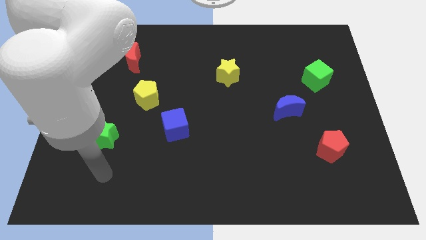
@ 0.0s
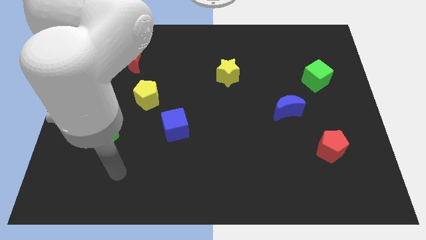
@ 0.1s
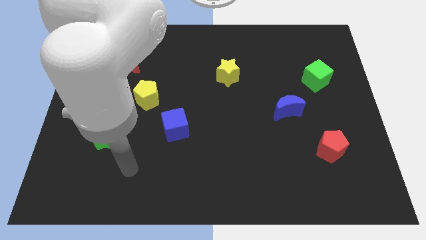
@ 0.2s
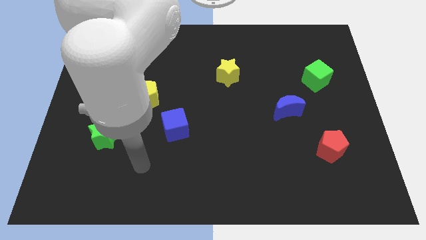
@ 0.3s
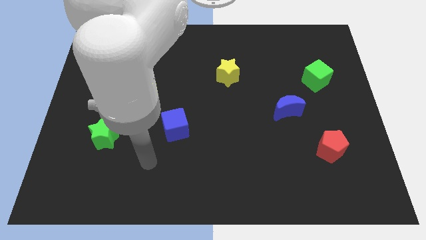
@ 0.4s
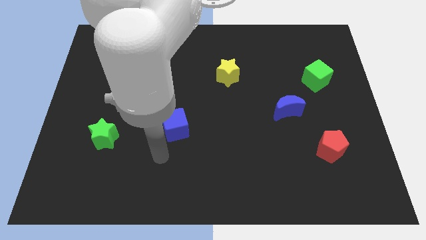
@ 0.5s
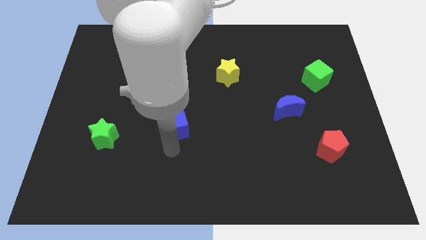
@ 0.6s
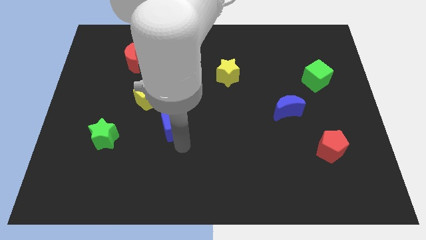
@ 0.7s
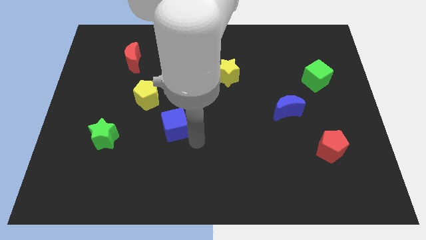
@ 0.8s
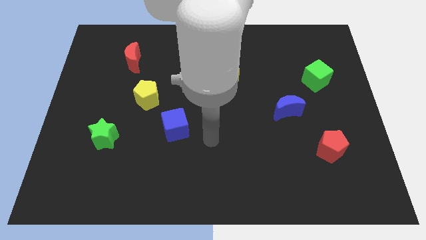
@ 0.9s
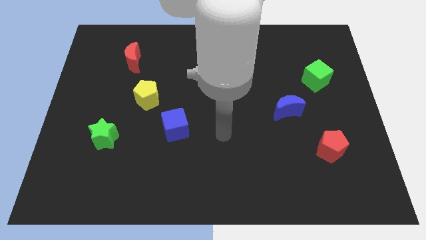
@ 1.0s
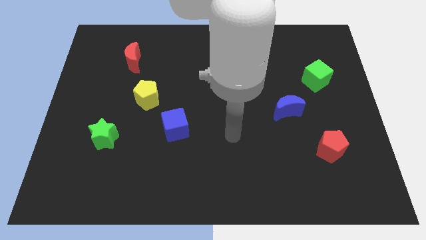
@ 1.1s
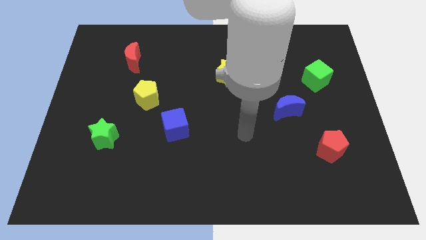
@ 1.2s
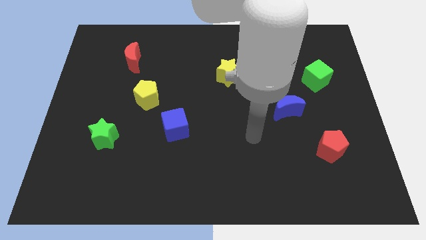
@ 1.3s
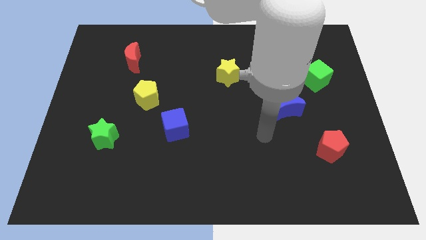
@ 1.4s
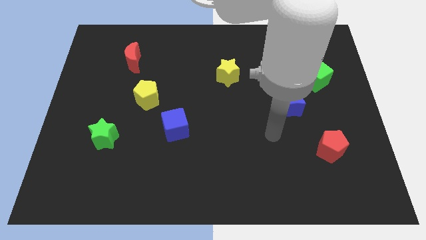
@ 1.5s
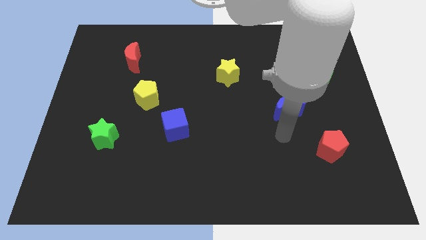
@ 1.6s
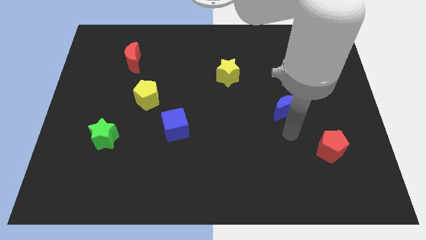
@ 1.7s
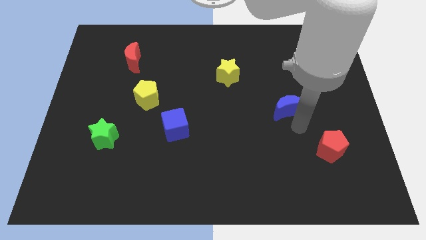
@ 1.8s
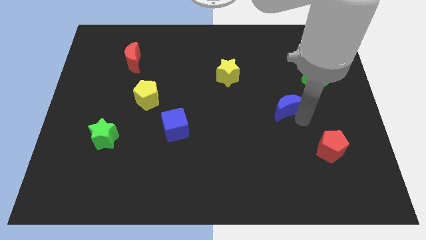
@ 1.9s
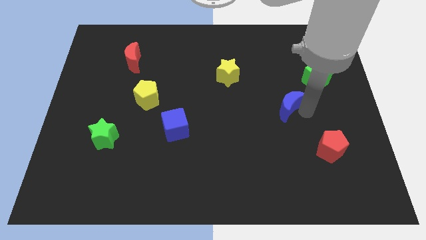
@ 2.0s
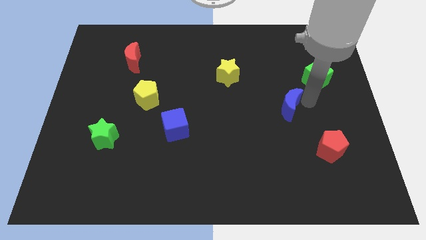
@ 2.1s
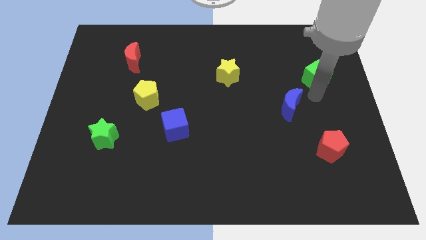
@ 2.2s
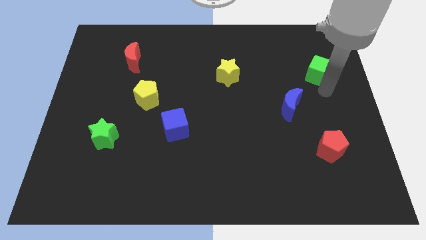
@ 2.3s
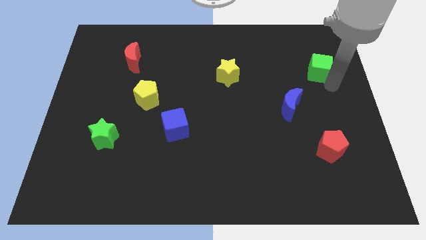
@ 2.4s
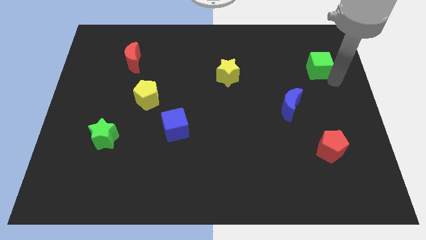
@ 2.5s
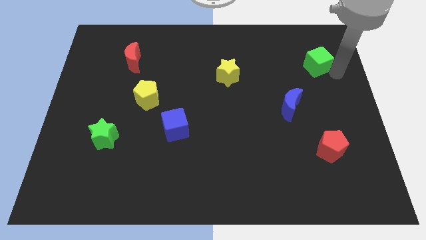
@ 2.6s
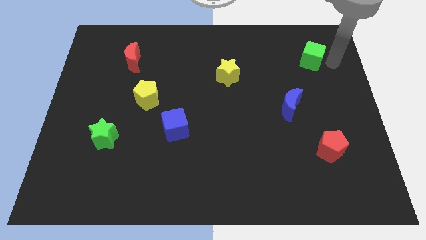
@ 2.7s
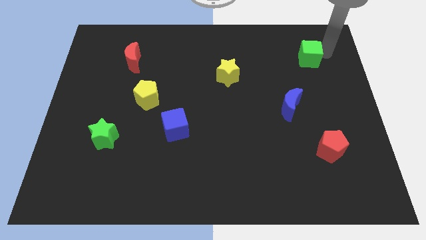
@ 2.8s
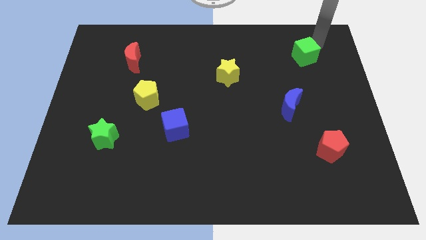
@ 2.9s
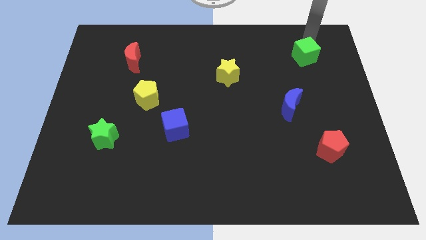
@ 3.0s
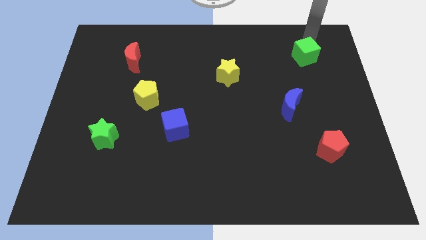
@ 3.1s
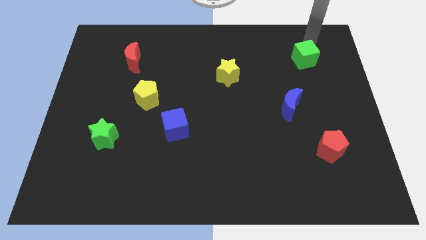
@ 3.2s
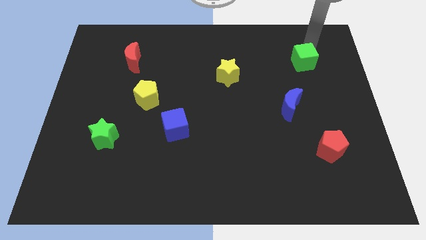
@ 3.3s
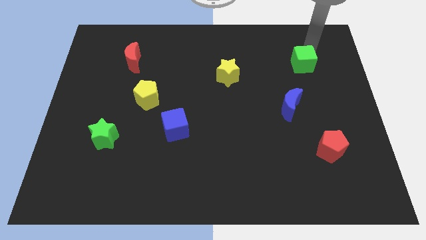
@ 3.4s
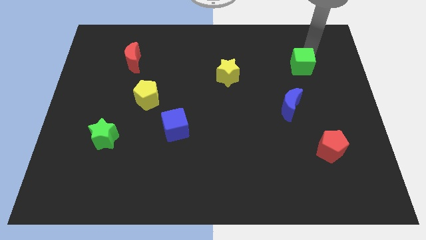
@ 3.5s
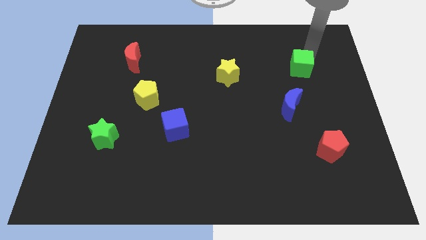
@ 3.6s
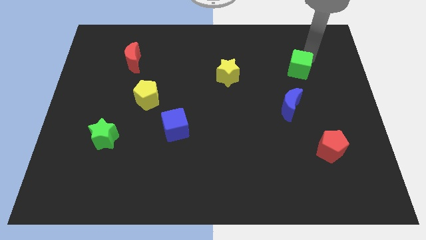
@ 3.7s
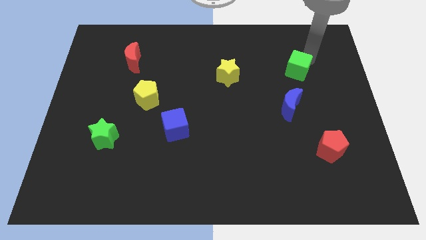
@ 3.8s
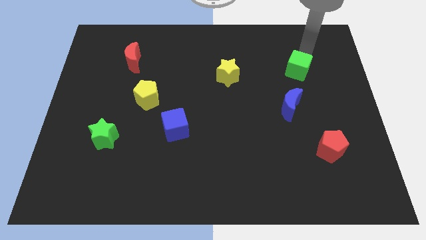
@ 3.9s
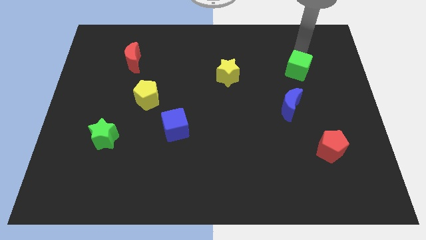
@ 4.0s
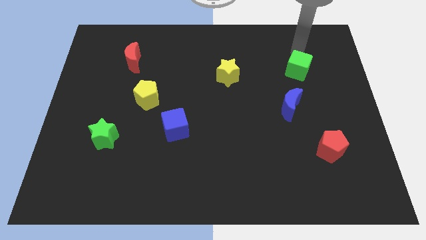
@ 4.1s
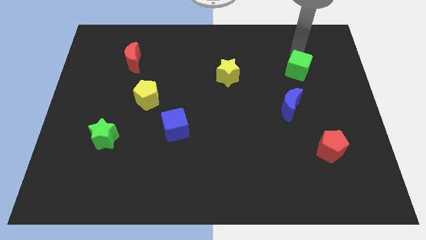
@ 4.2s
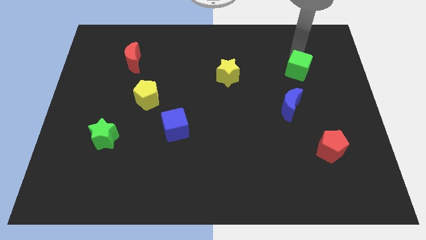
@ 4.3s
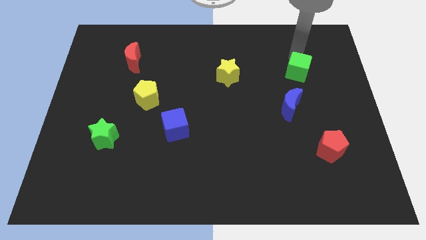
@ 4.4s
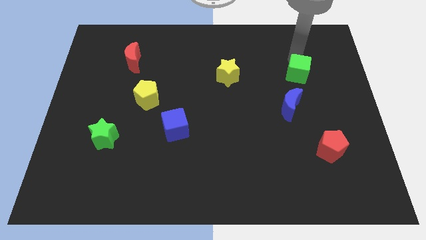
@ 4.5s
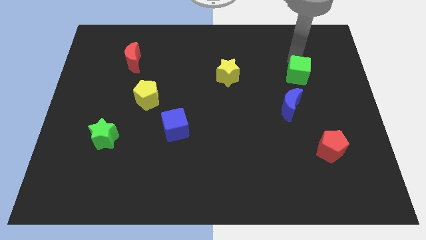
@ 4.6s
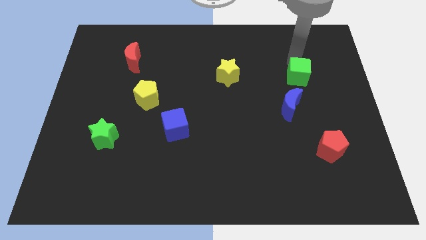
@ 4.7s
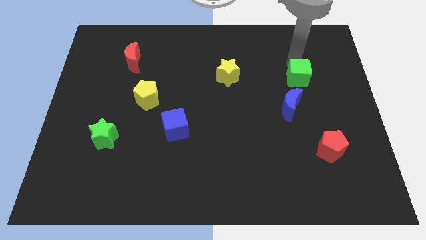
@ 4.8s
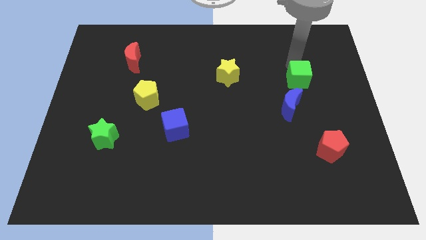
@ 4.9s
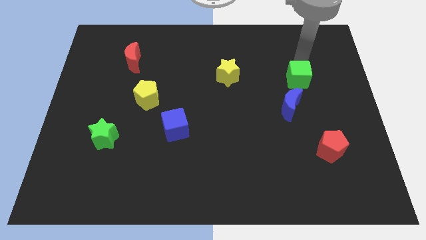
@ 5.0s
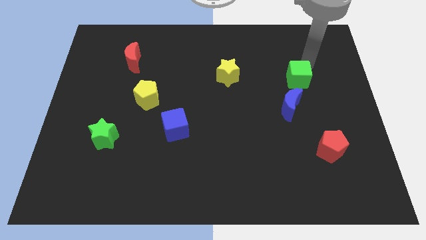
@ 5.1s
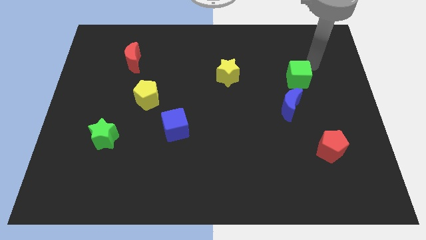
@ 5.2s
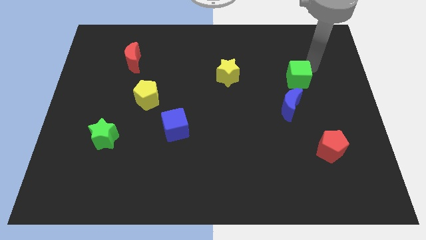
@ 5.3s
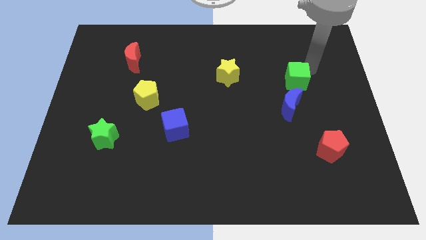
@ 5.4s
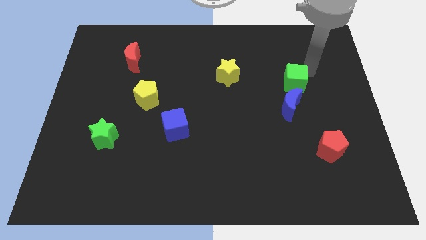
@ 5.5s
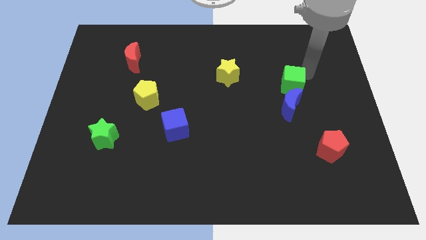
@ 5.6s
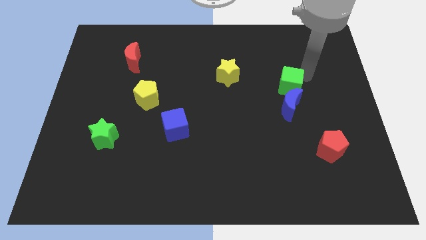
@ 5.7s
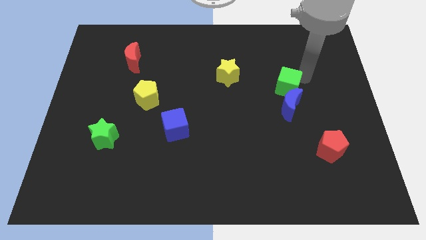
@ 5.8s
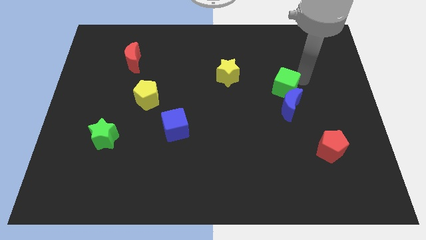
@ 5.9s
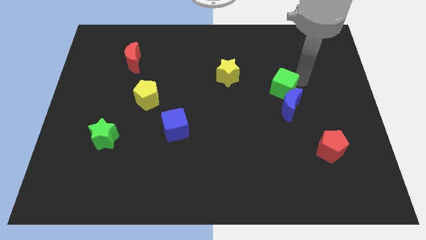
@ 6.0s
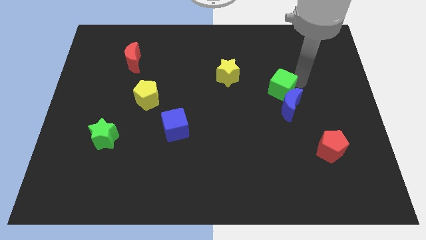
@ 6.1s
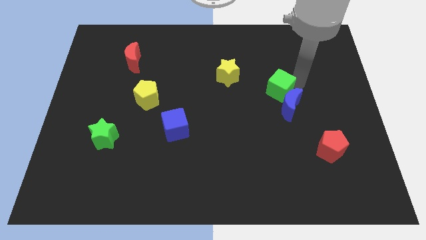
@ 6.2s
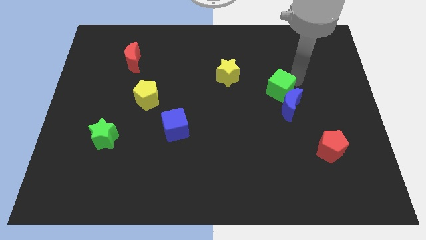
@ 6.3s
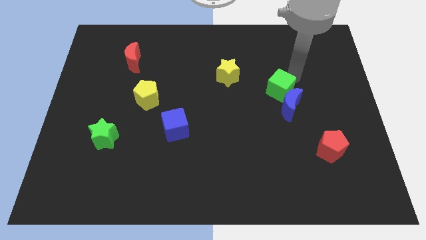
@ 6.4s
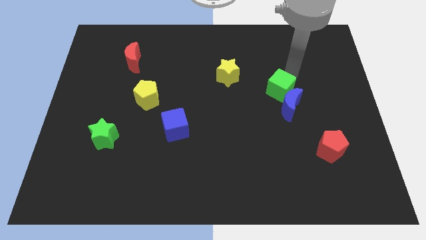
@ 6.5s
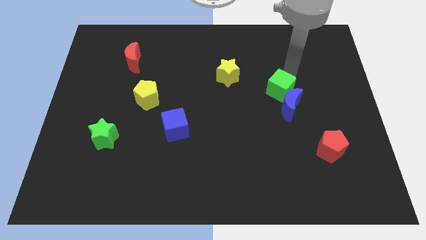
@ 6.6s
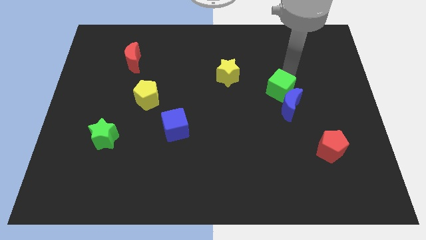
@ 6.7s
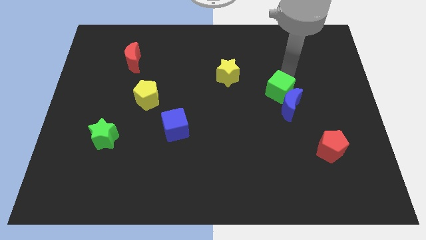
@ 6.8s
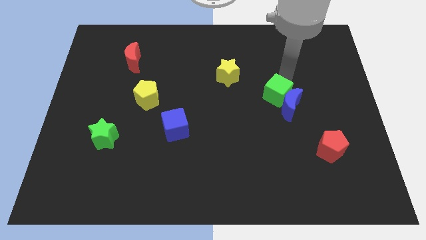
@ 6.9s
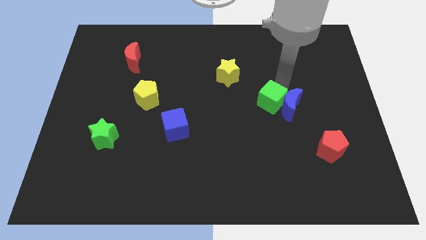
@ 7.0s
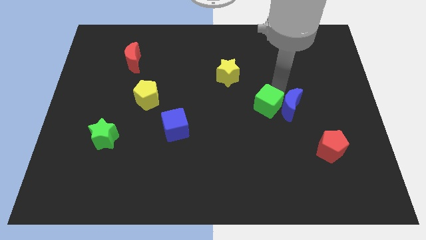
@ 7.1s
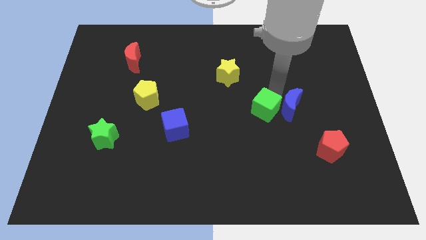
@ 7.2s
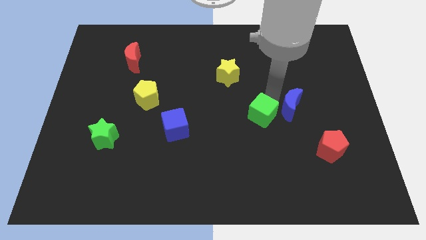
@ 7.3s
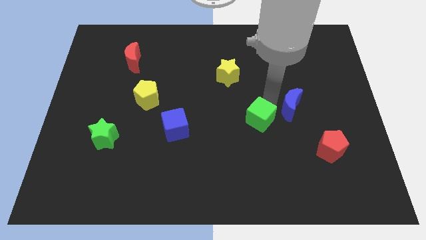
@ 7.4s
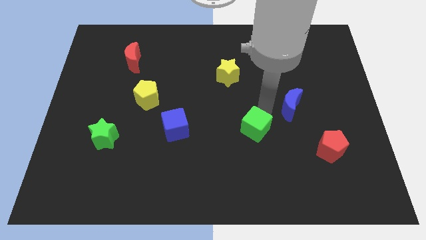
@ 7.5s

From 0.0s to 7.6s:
slide the green cube down and left
